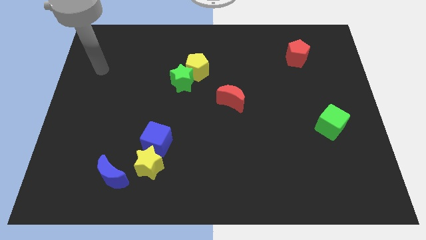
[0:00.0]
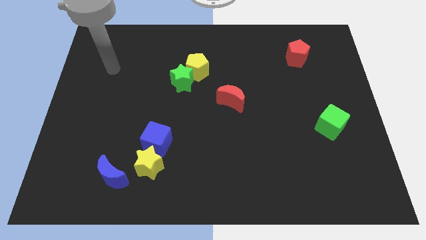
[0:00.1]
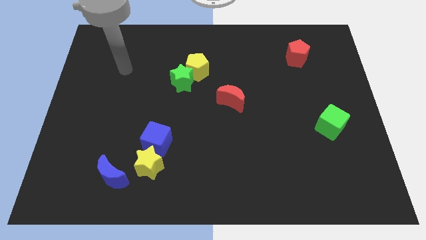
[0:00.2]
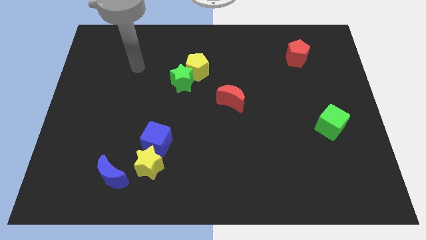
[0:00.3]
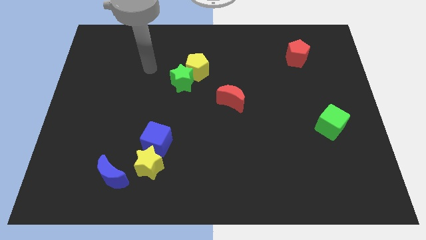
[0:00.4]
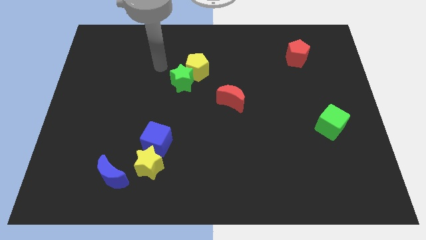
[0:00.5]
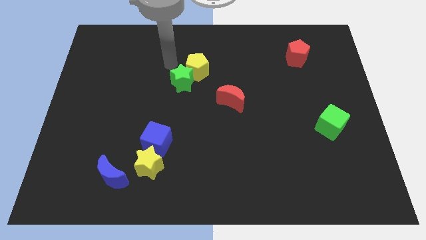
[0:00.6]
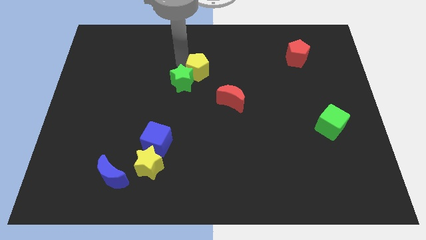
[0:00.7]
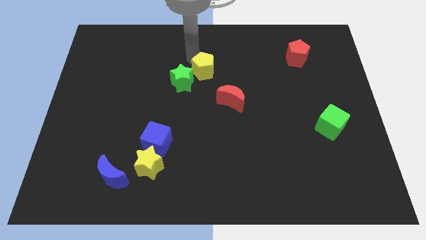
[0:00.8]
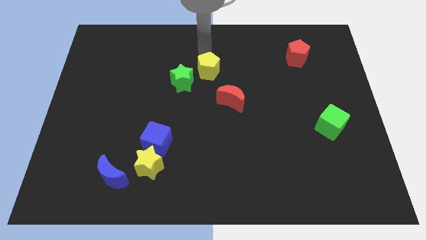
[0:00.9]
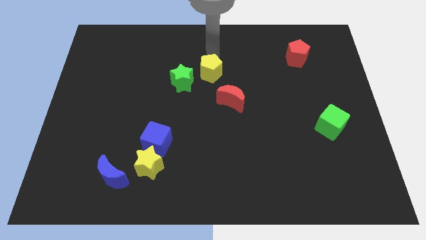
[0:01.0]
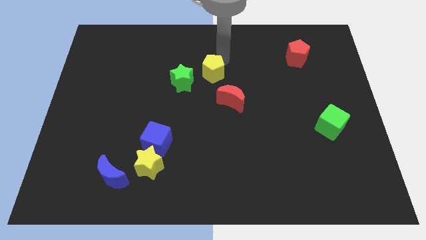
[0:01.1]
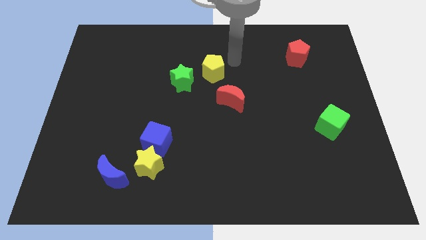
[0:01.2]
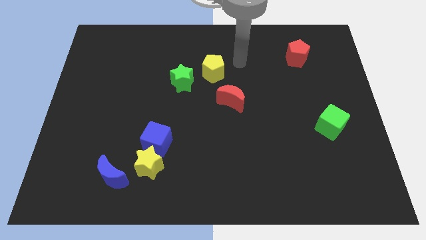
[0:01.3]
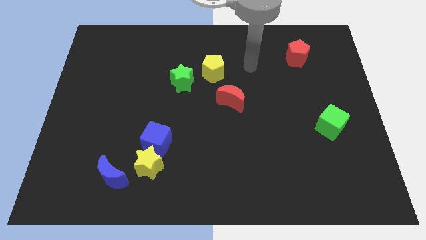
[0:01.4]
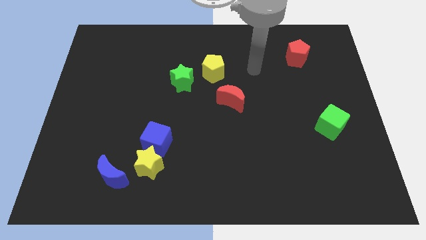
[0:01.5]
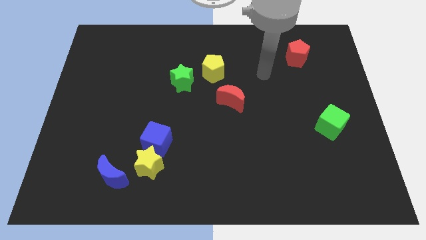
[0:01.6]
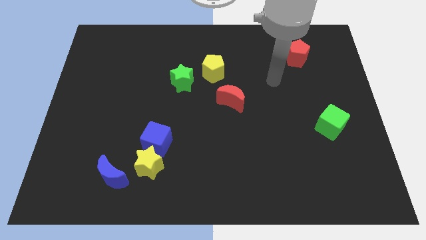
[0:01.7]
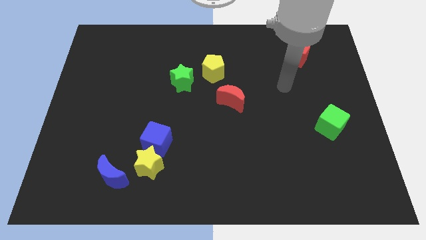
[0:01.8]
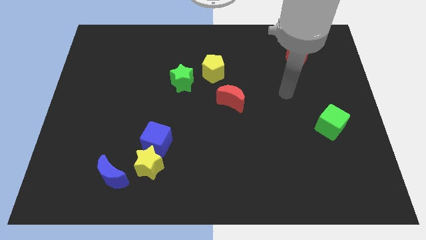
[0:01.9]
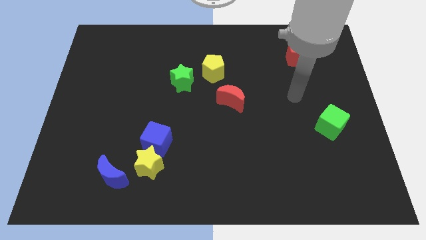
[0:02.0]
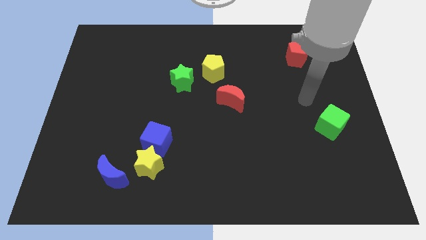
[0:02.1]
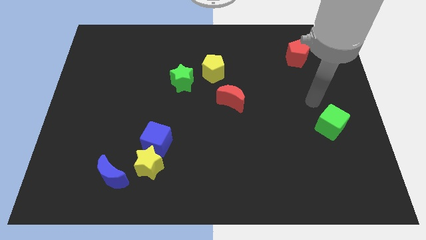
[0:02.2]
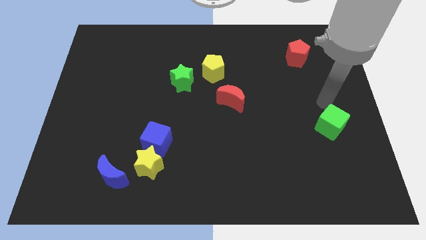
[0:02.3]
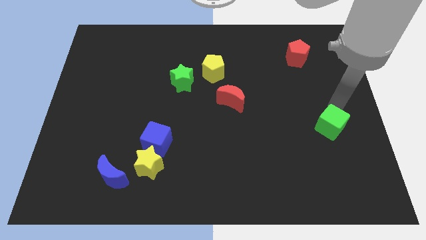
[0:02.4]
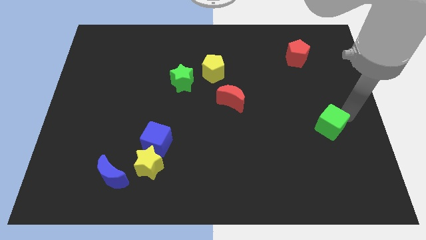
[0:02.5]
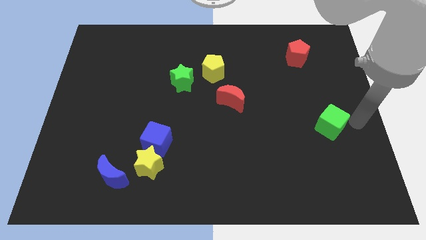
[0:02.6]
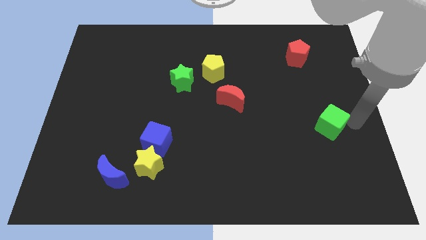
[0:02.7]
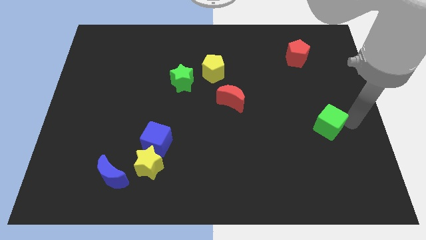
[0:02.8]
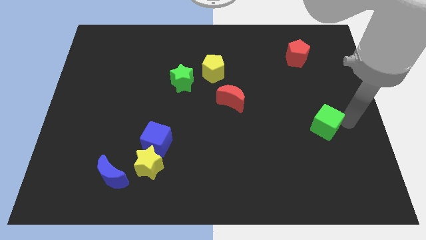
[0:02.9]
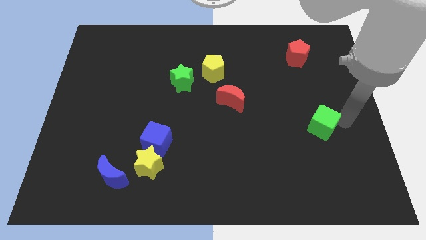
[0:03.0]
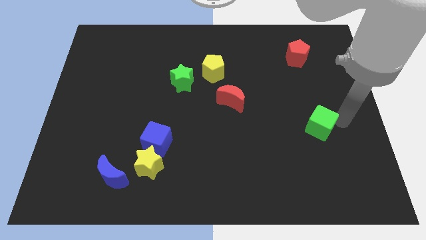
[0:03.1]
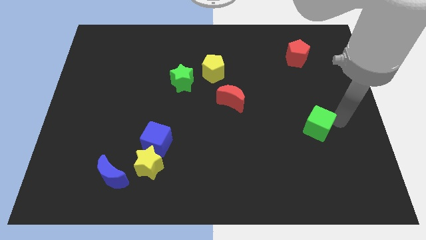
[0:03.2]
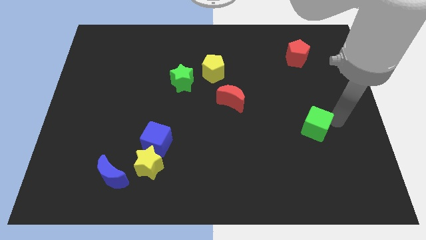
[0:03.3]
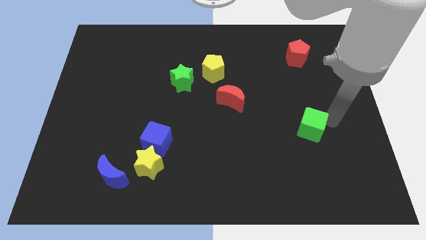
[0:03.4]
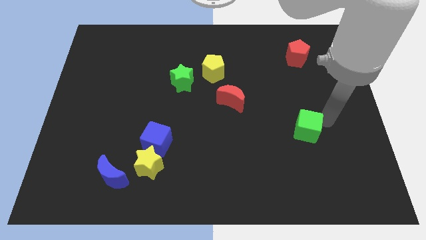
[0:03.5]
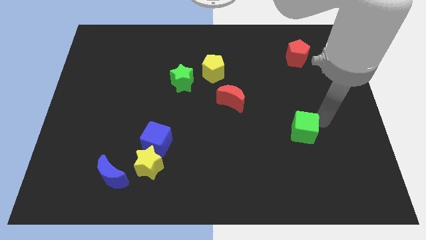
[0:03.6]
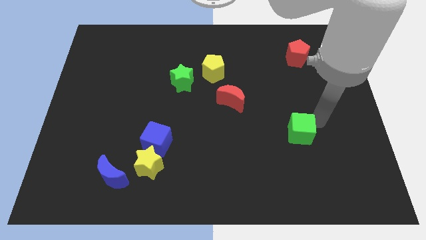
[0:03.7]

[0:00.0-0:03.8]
move the green cube left somewhat

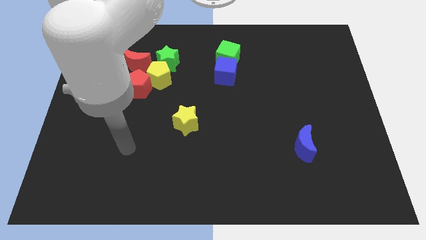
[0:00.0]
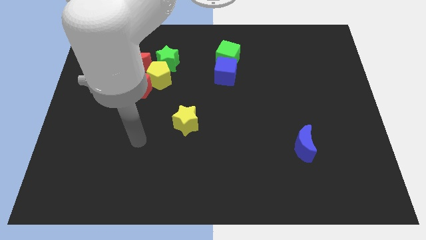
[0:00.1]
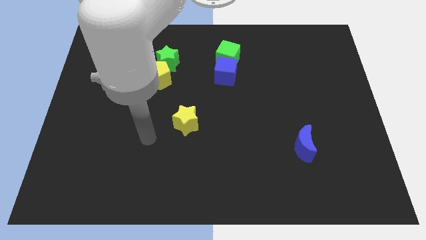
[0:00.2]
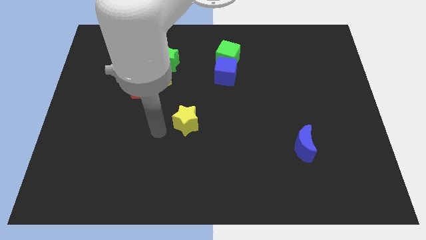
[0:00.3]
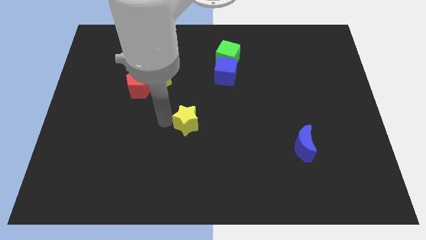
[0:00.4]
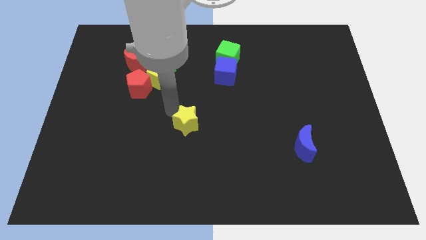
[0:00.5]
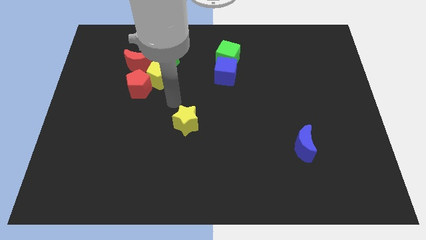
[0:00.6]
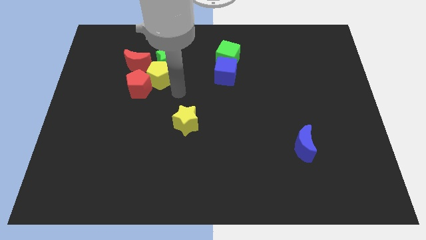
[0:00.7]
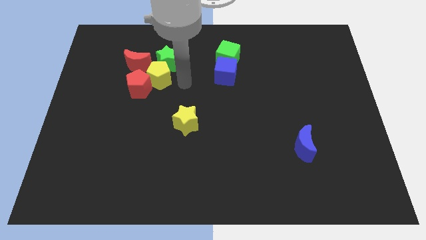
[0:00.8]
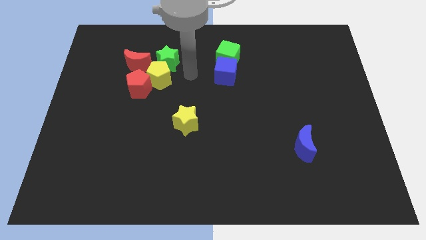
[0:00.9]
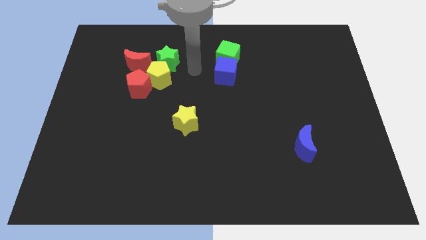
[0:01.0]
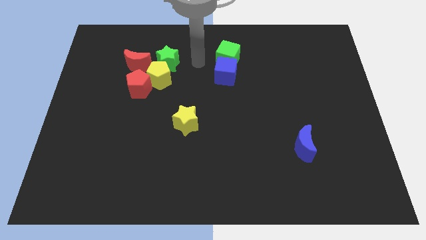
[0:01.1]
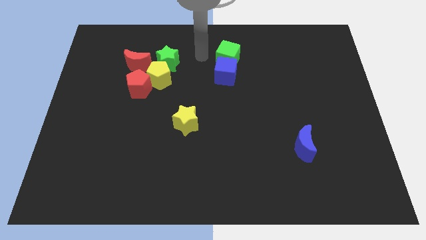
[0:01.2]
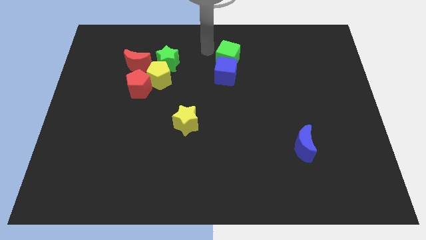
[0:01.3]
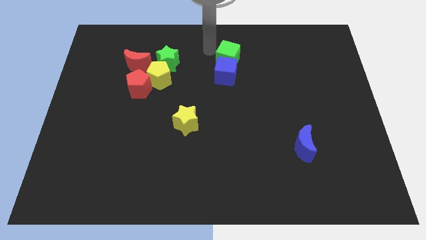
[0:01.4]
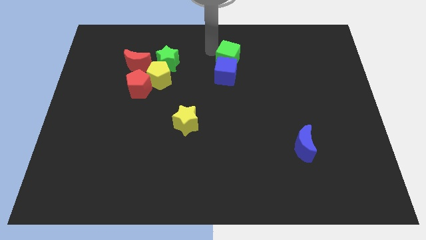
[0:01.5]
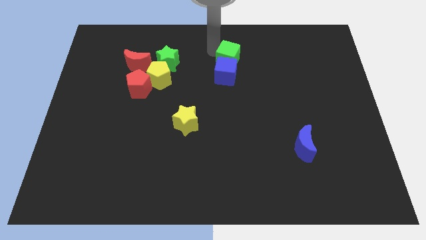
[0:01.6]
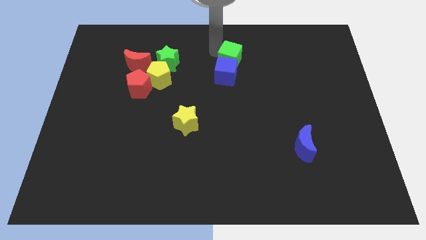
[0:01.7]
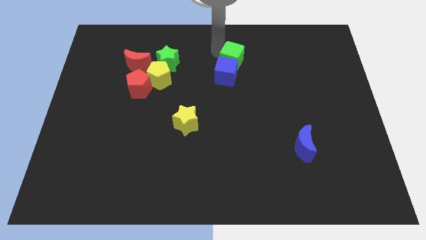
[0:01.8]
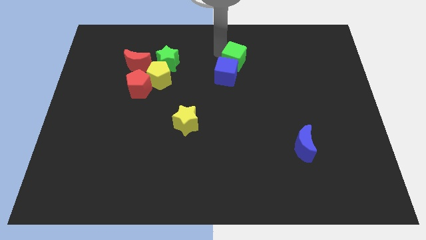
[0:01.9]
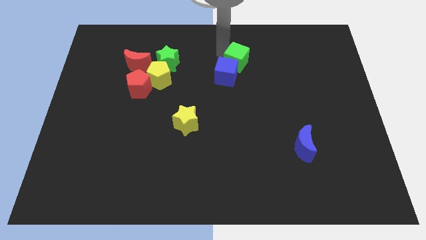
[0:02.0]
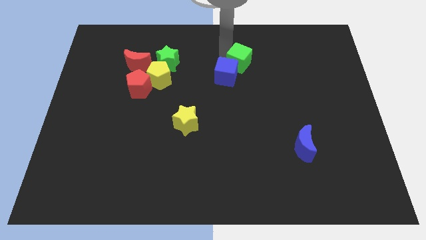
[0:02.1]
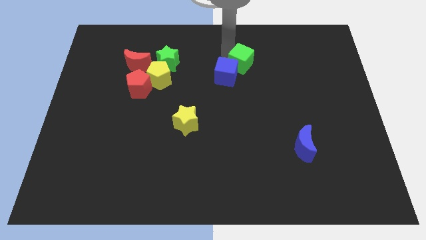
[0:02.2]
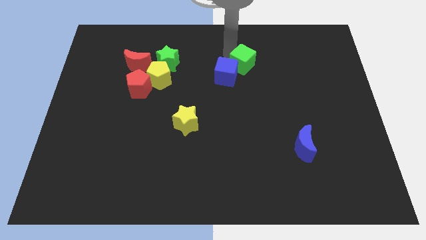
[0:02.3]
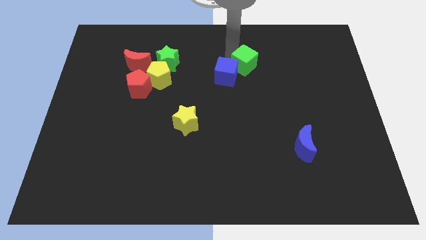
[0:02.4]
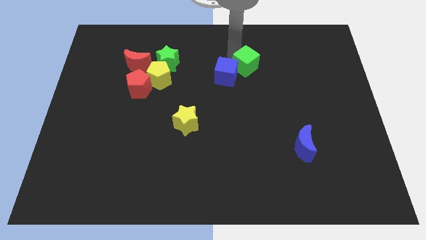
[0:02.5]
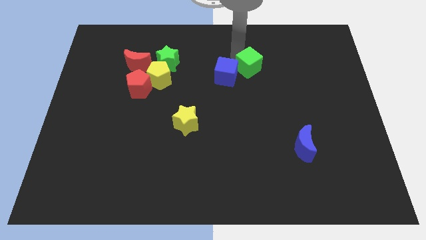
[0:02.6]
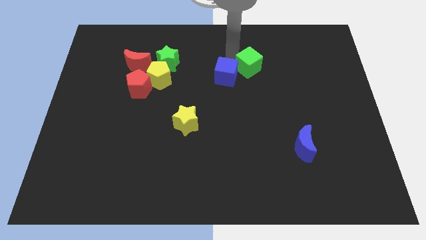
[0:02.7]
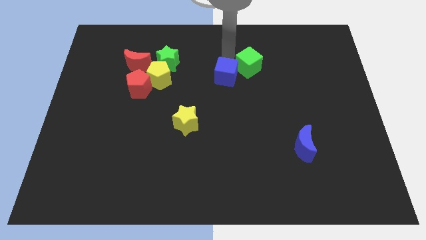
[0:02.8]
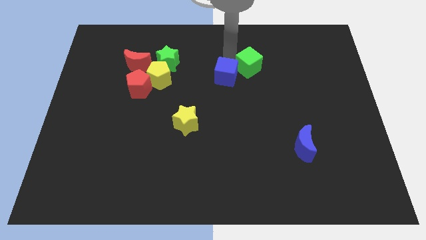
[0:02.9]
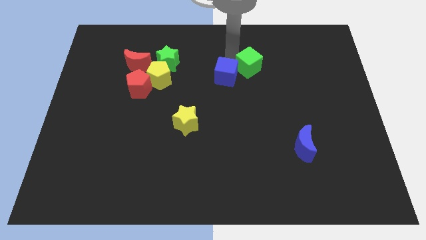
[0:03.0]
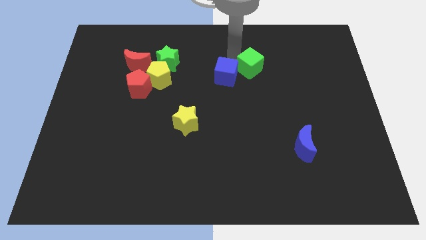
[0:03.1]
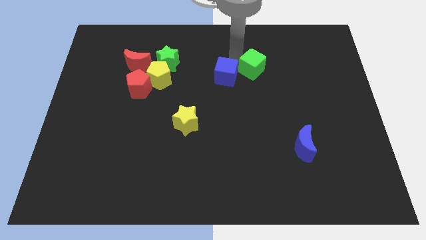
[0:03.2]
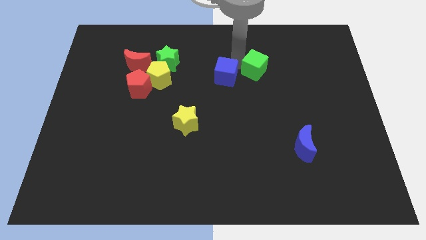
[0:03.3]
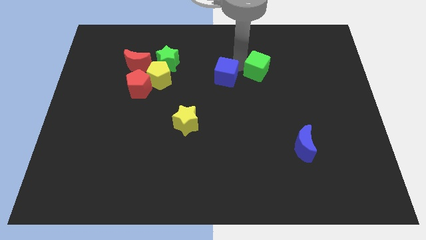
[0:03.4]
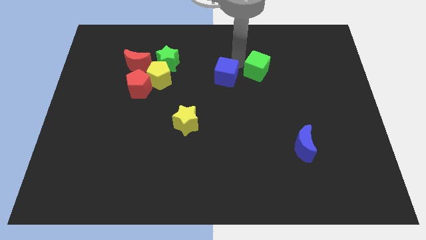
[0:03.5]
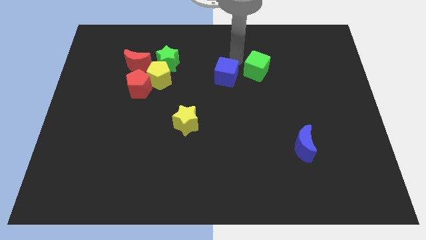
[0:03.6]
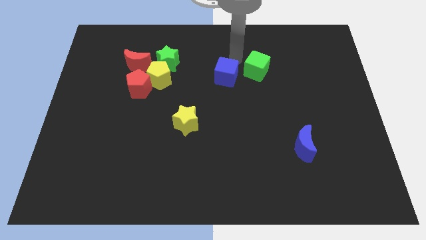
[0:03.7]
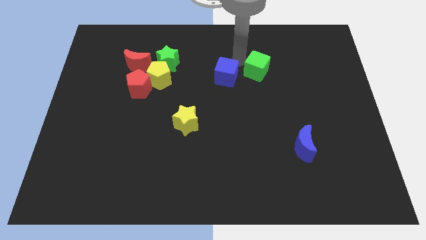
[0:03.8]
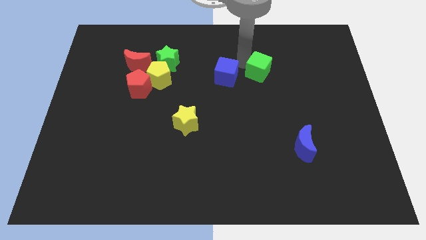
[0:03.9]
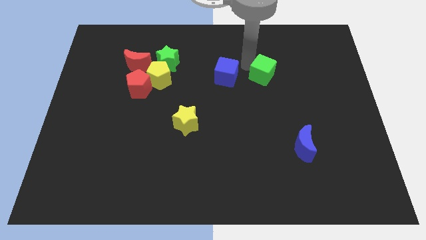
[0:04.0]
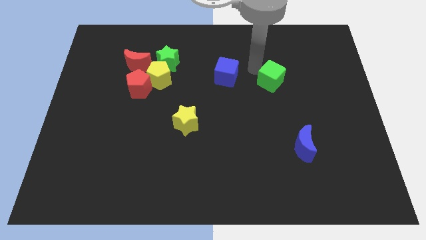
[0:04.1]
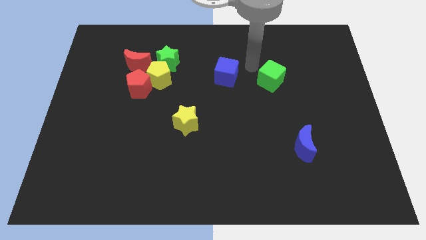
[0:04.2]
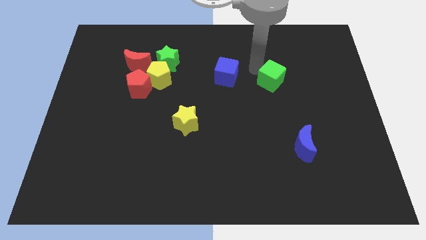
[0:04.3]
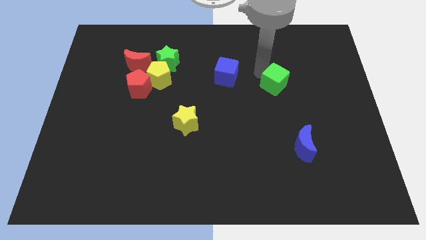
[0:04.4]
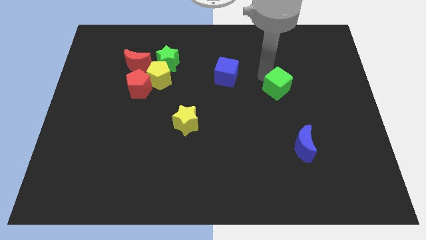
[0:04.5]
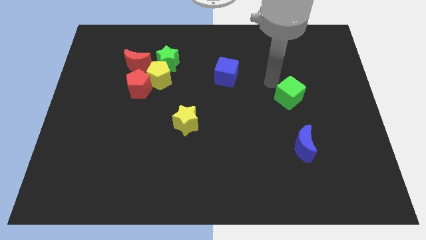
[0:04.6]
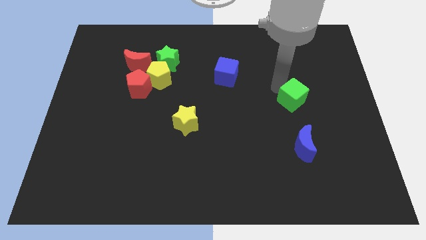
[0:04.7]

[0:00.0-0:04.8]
move the green cube downwards and to the right
